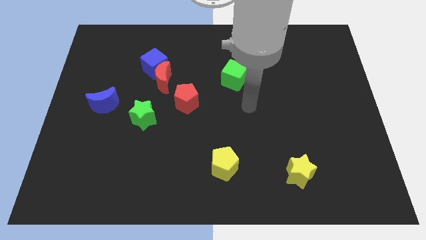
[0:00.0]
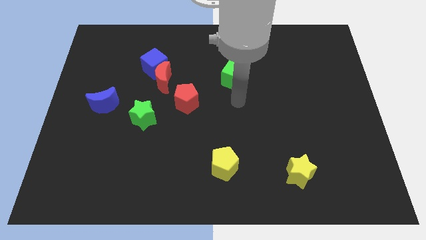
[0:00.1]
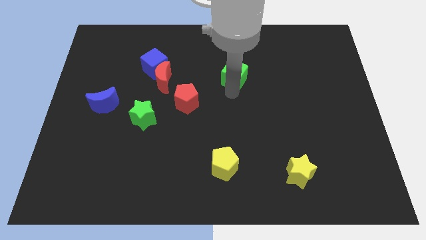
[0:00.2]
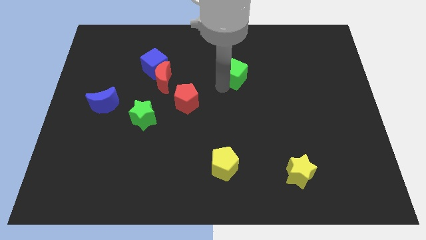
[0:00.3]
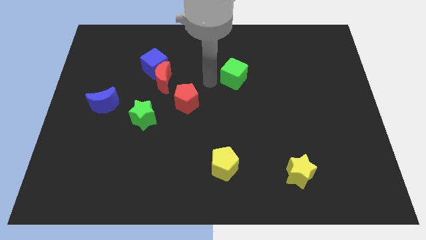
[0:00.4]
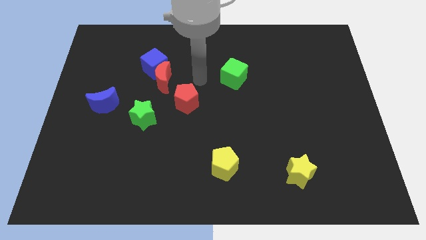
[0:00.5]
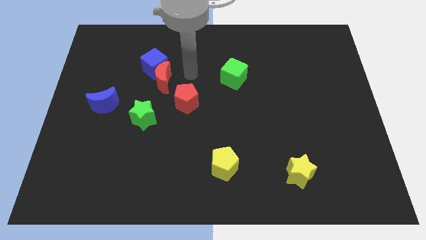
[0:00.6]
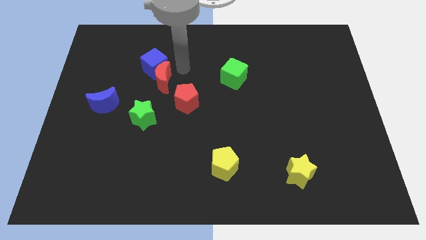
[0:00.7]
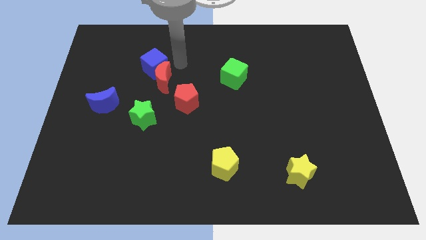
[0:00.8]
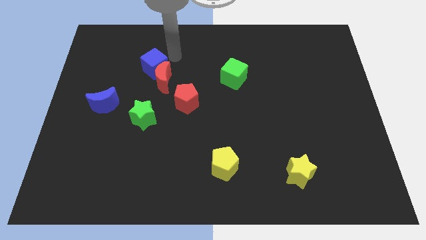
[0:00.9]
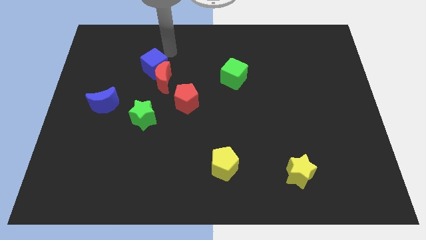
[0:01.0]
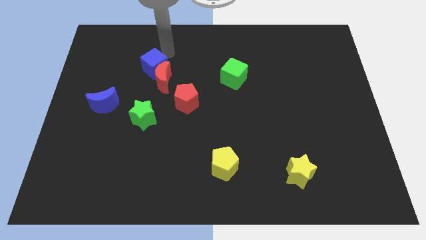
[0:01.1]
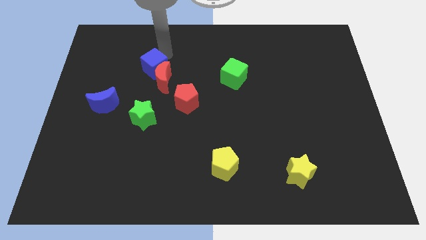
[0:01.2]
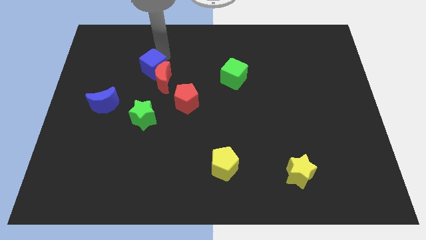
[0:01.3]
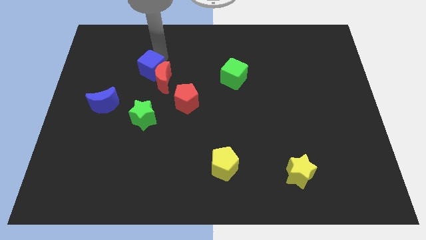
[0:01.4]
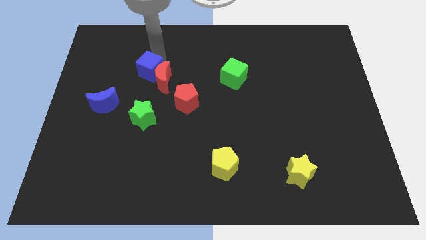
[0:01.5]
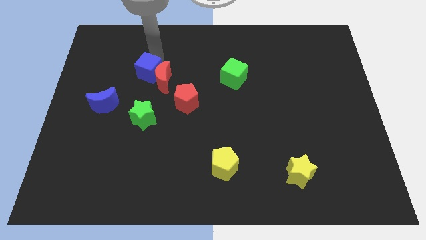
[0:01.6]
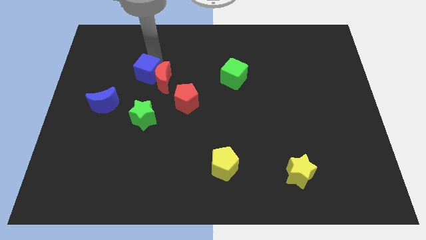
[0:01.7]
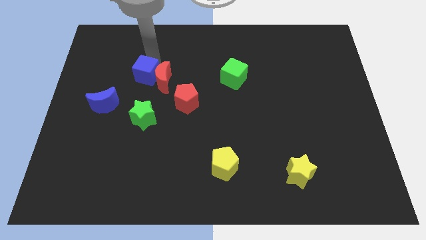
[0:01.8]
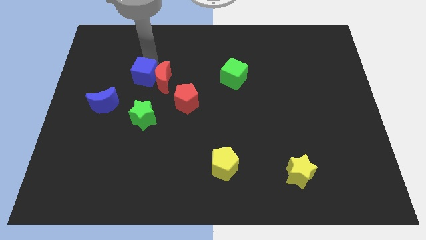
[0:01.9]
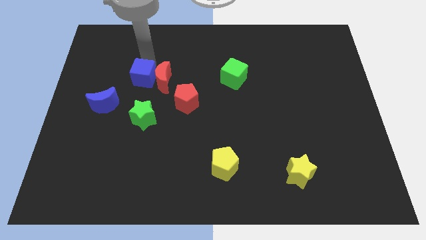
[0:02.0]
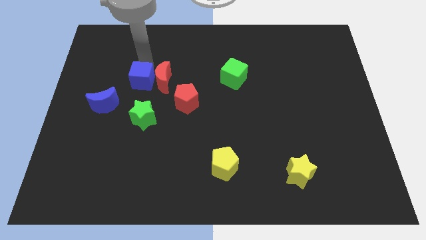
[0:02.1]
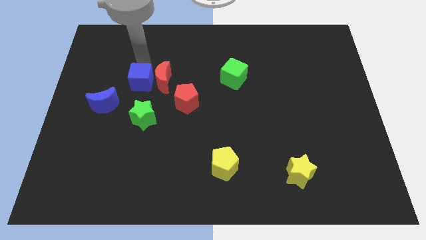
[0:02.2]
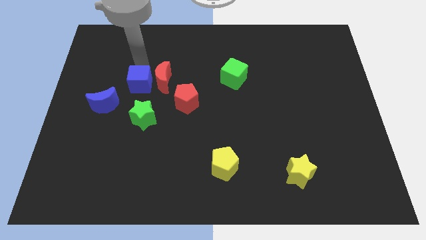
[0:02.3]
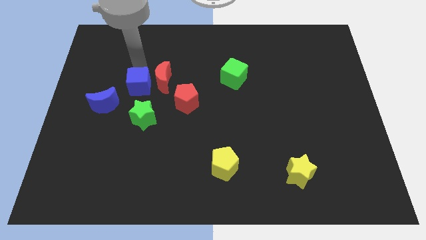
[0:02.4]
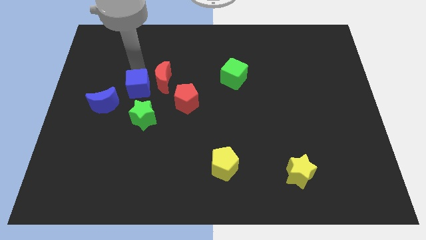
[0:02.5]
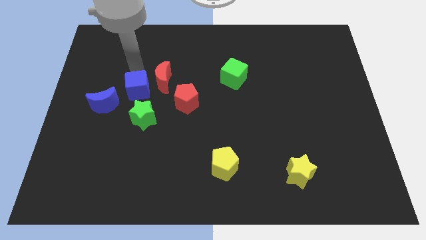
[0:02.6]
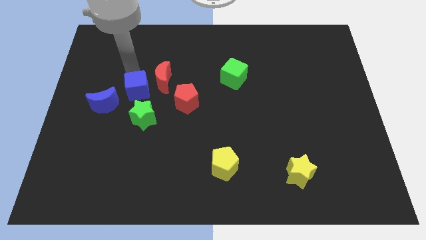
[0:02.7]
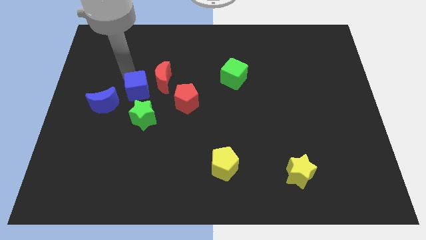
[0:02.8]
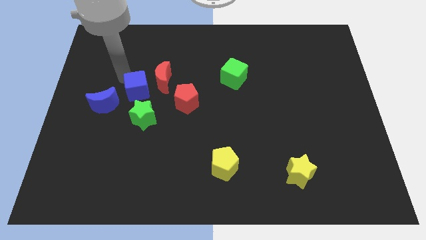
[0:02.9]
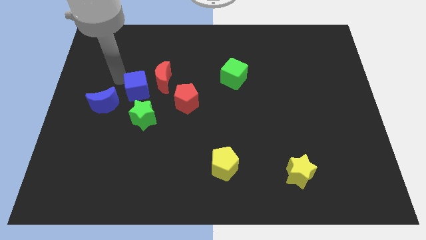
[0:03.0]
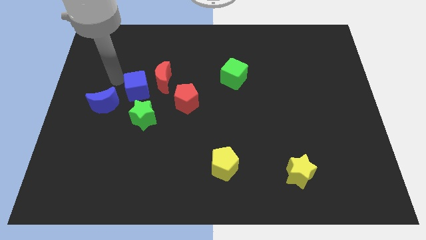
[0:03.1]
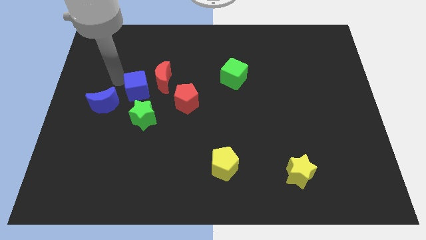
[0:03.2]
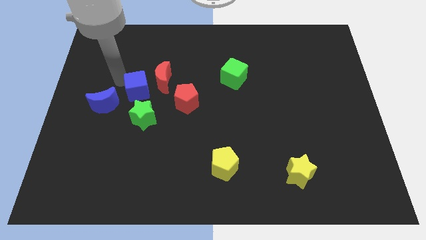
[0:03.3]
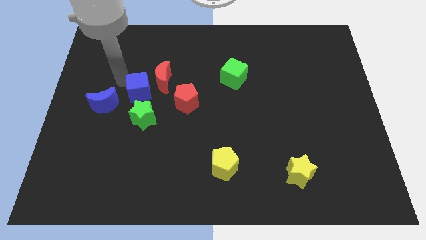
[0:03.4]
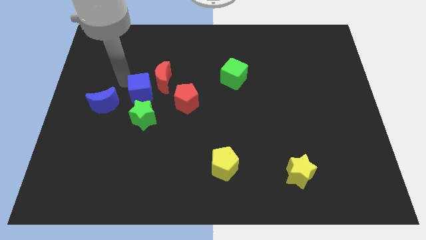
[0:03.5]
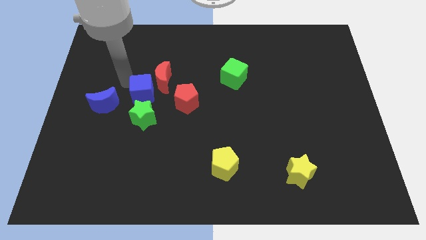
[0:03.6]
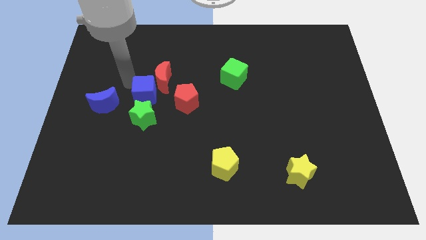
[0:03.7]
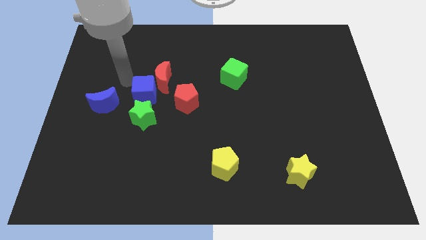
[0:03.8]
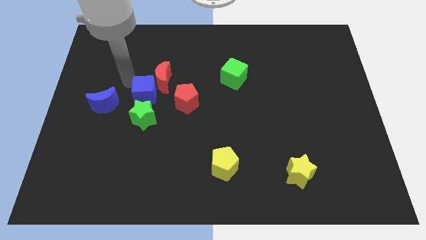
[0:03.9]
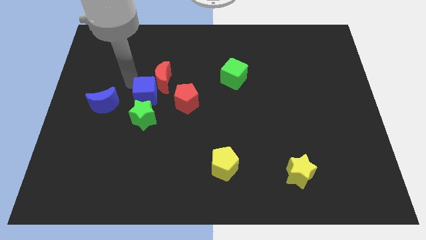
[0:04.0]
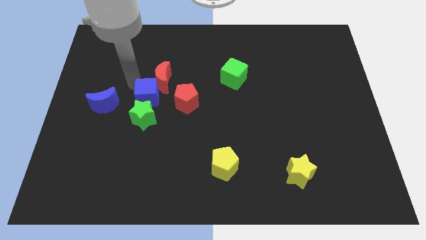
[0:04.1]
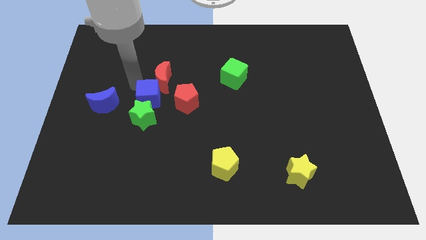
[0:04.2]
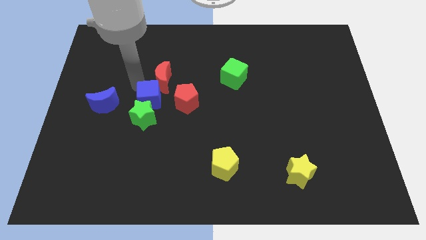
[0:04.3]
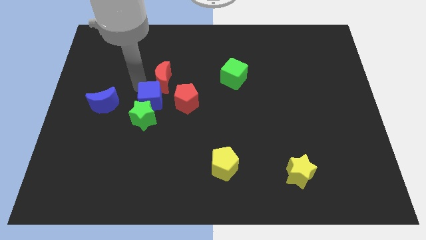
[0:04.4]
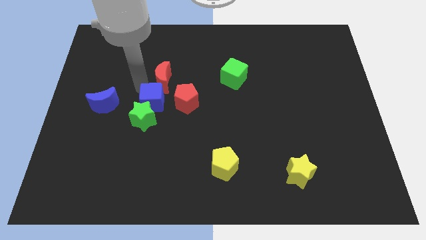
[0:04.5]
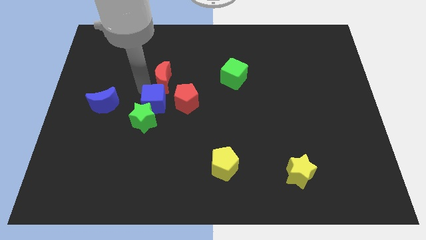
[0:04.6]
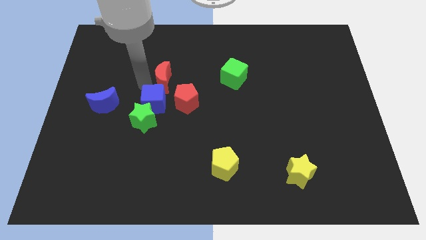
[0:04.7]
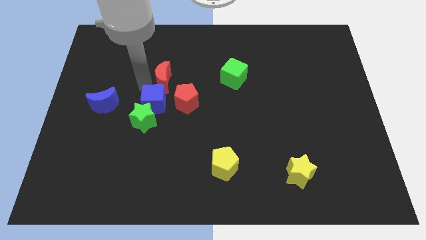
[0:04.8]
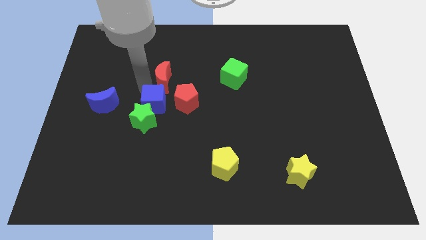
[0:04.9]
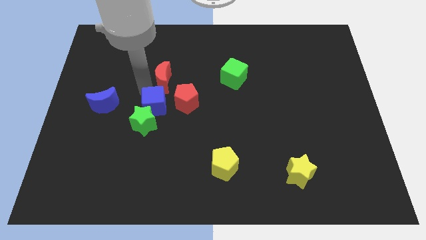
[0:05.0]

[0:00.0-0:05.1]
push the blue cube to the bottom left of the red pentagon

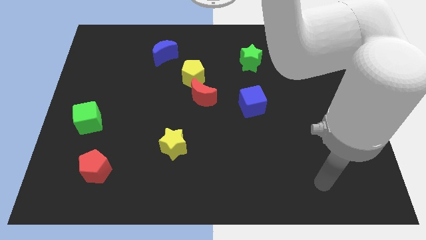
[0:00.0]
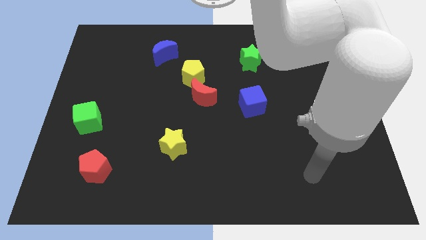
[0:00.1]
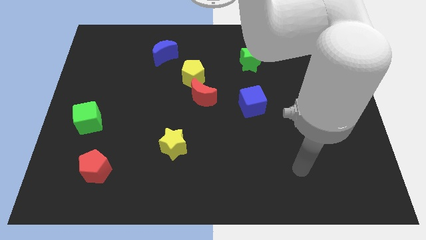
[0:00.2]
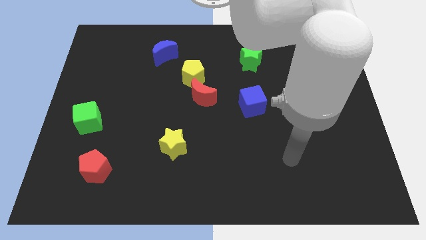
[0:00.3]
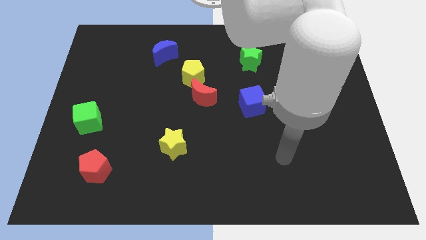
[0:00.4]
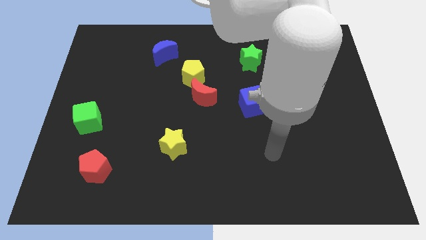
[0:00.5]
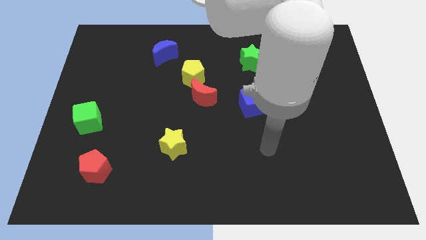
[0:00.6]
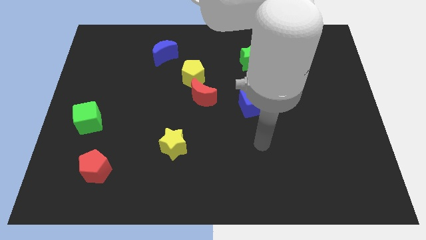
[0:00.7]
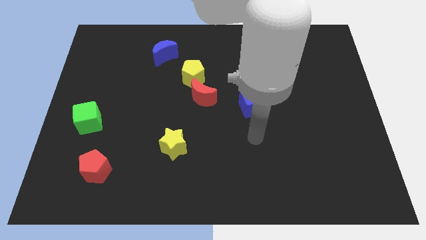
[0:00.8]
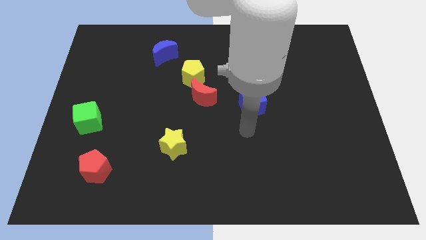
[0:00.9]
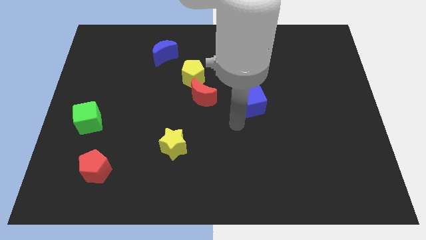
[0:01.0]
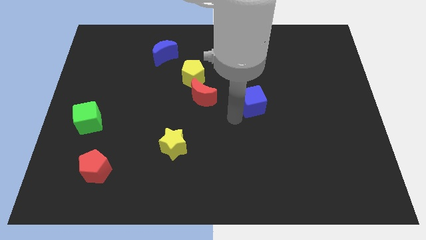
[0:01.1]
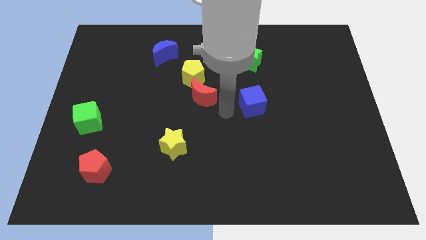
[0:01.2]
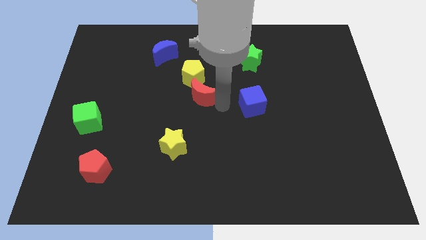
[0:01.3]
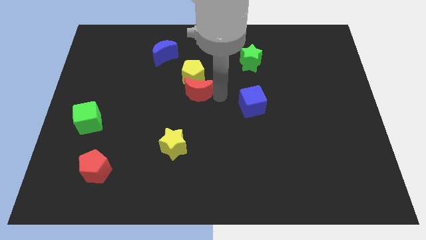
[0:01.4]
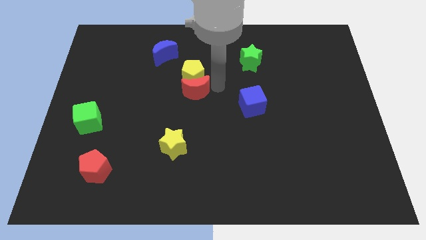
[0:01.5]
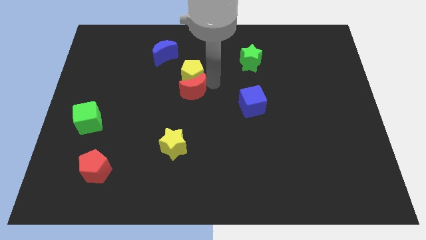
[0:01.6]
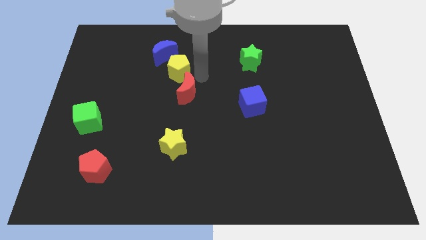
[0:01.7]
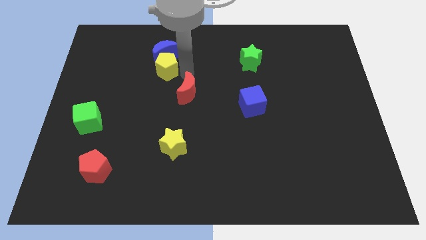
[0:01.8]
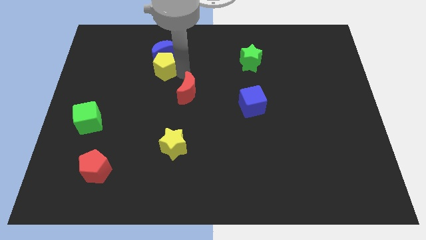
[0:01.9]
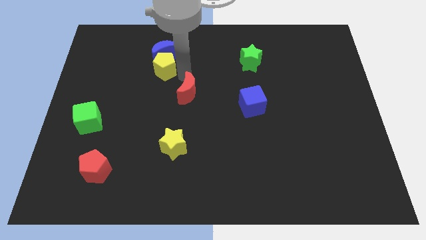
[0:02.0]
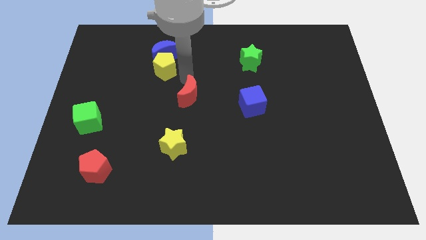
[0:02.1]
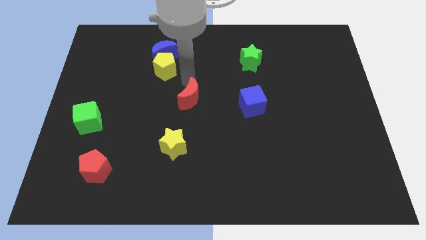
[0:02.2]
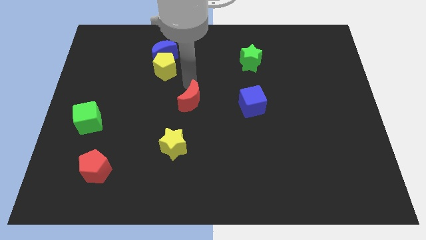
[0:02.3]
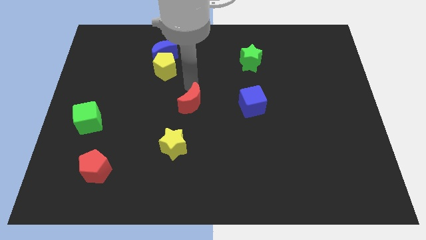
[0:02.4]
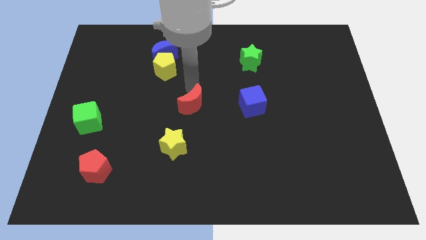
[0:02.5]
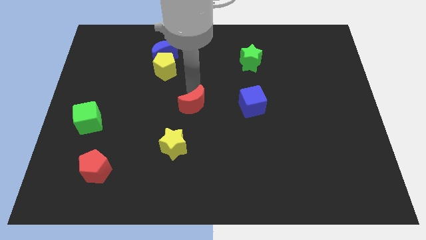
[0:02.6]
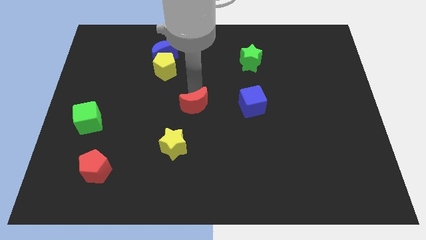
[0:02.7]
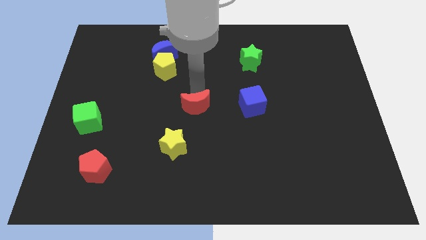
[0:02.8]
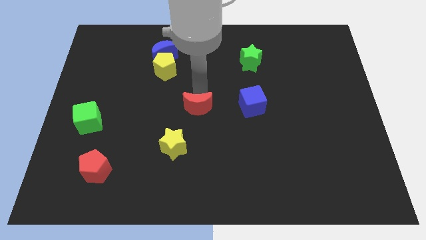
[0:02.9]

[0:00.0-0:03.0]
slide the red moon to the top right of the yellow star

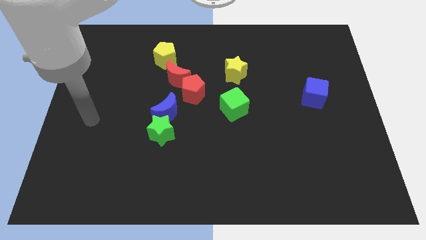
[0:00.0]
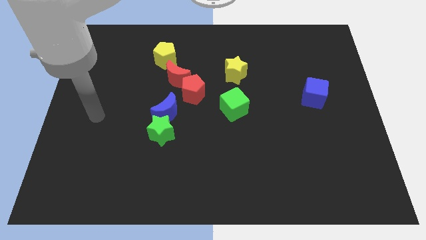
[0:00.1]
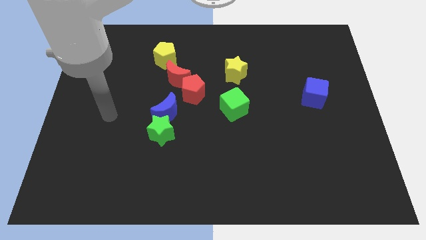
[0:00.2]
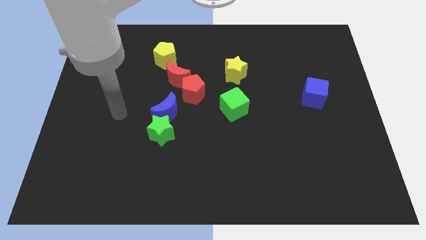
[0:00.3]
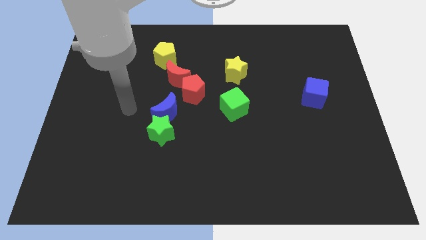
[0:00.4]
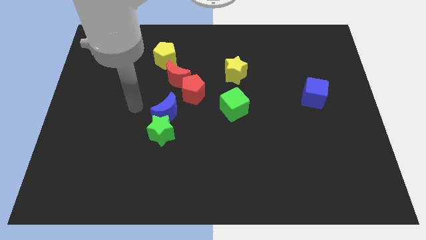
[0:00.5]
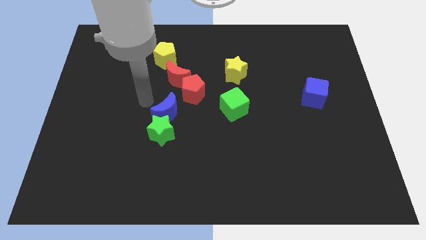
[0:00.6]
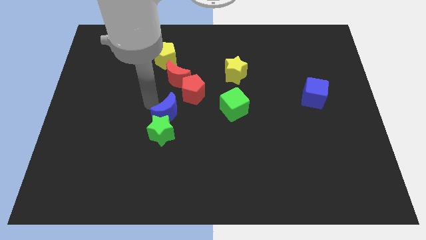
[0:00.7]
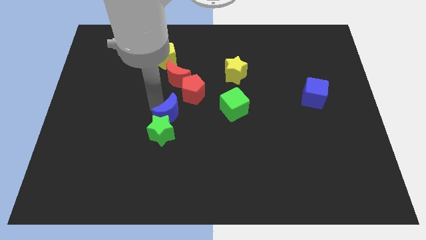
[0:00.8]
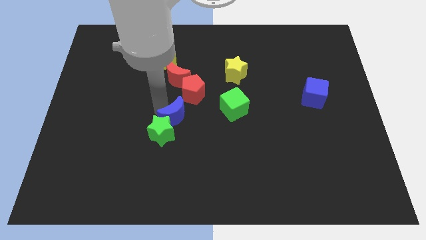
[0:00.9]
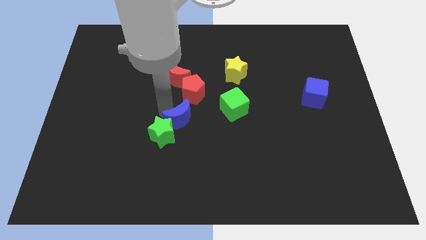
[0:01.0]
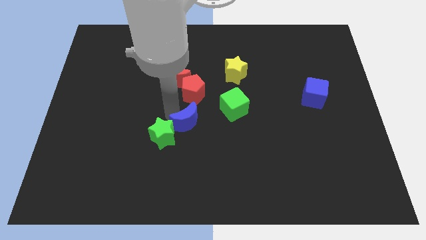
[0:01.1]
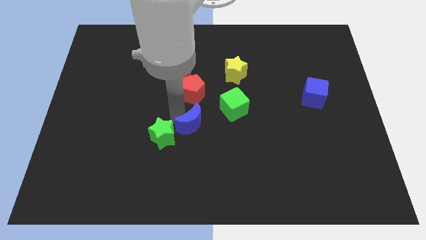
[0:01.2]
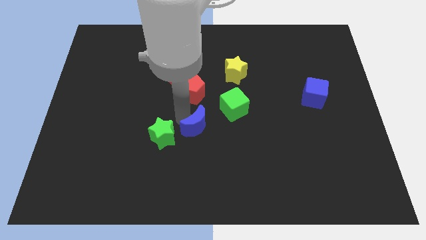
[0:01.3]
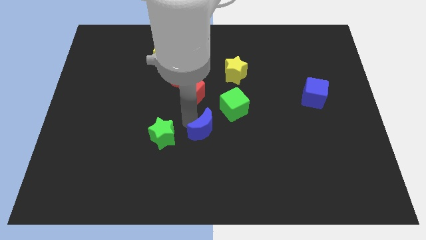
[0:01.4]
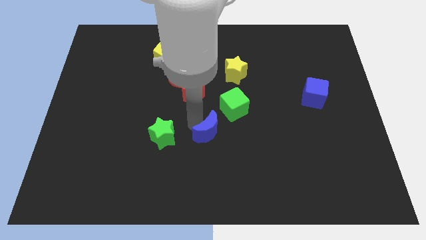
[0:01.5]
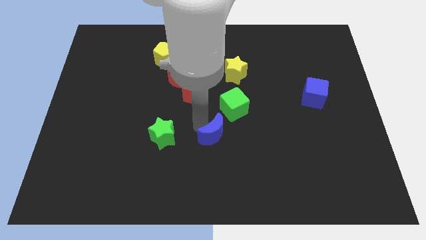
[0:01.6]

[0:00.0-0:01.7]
put the blue moon to the bottom of the green cube
